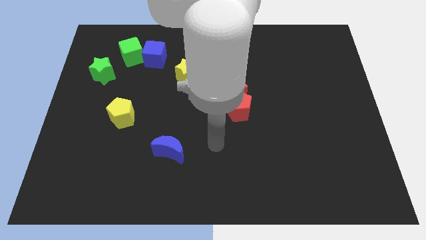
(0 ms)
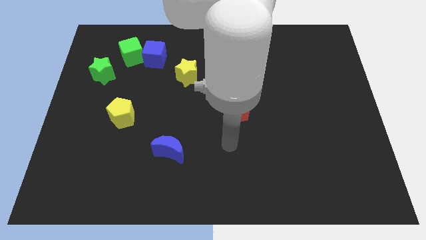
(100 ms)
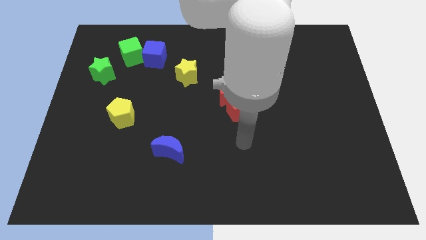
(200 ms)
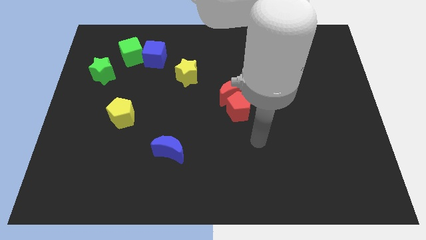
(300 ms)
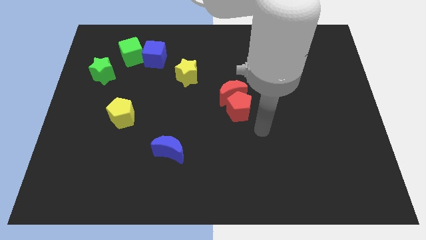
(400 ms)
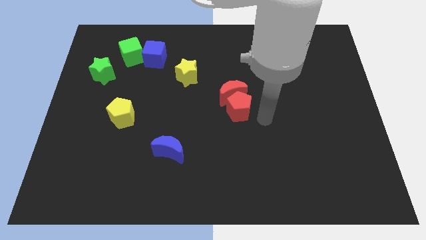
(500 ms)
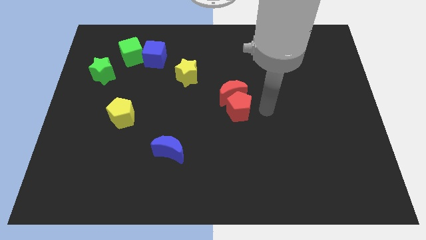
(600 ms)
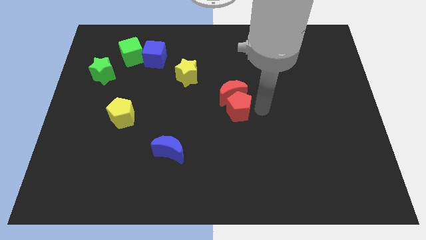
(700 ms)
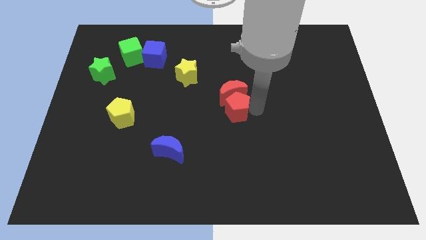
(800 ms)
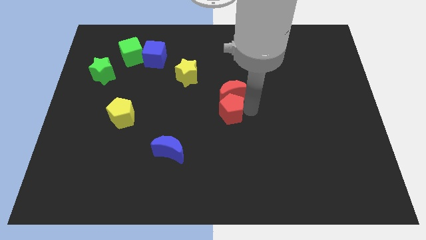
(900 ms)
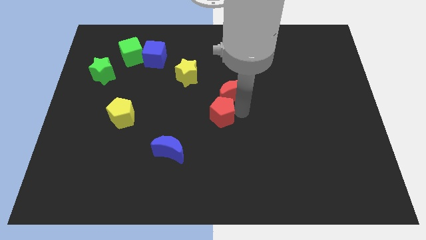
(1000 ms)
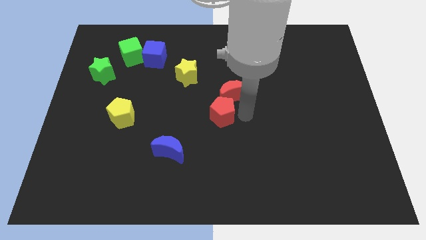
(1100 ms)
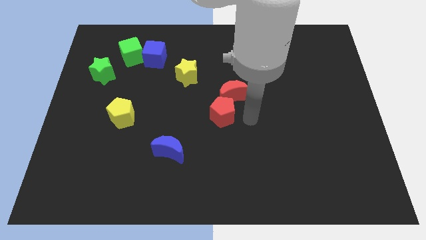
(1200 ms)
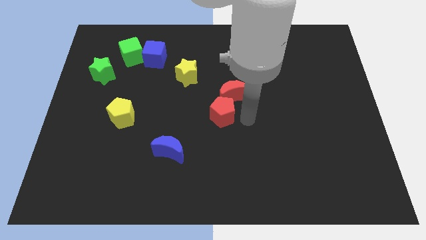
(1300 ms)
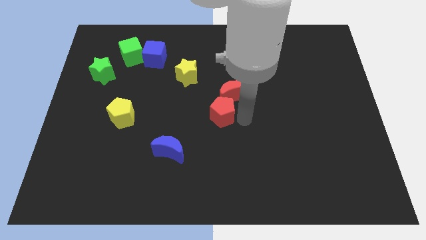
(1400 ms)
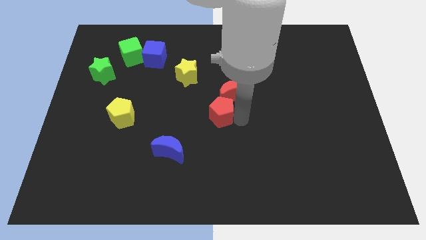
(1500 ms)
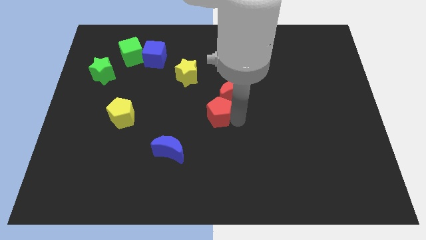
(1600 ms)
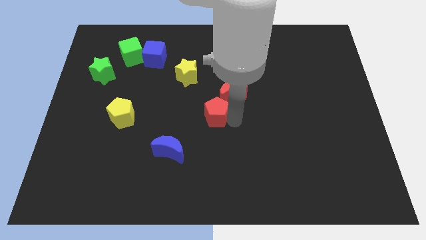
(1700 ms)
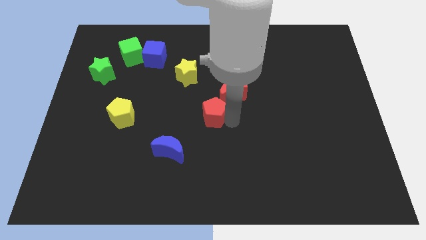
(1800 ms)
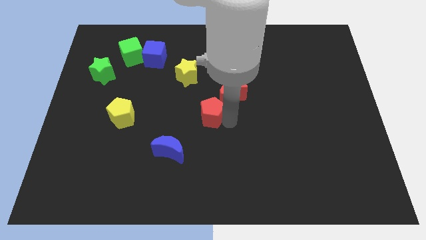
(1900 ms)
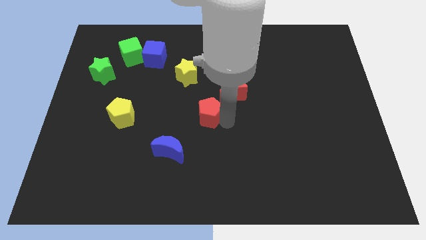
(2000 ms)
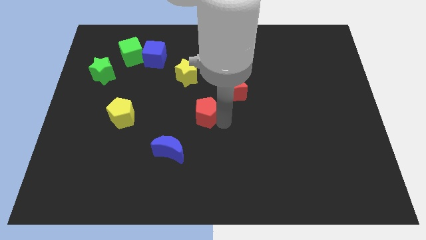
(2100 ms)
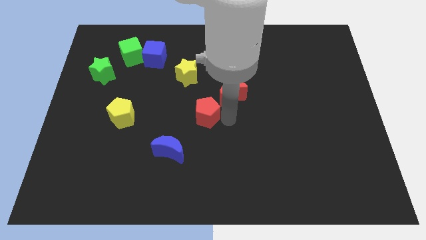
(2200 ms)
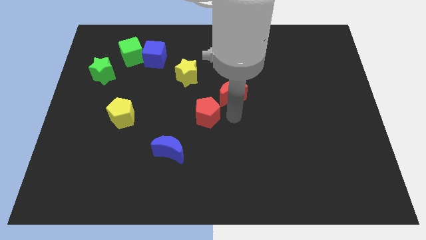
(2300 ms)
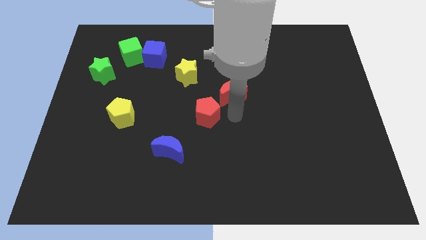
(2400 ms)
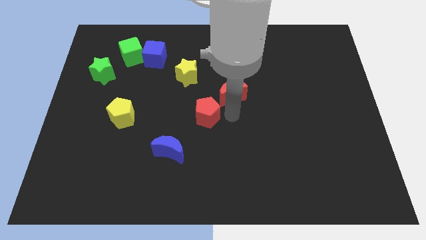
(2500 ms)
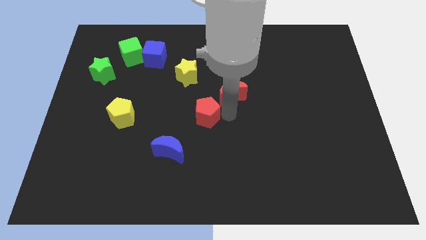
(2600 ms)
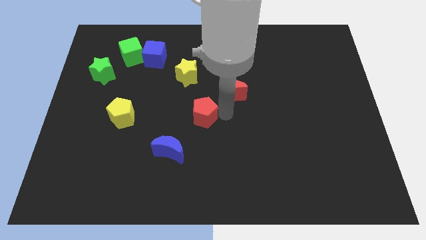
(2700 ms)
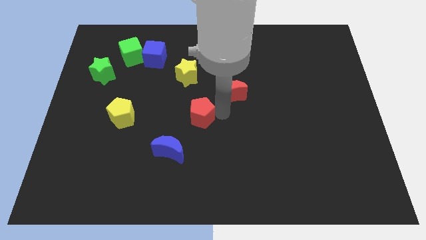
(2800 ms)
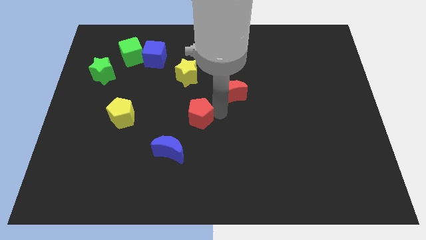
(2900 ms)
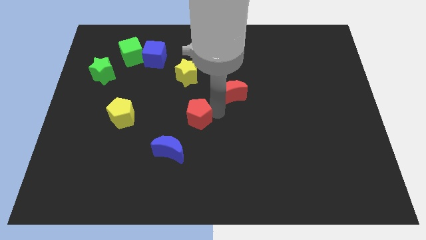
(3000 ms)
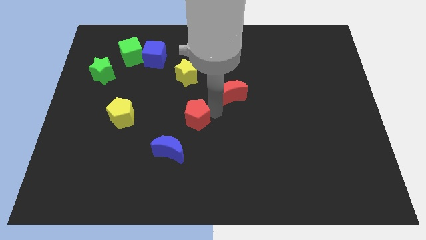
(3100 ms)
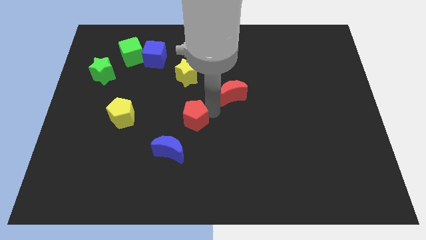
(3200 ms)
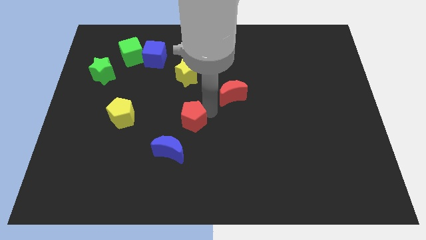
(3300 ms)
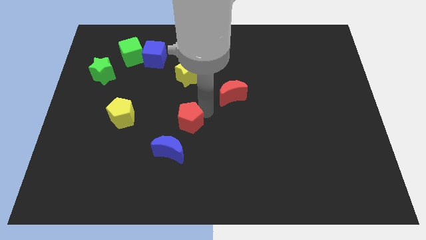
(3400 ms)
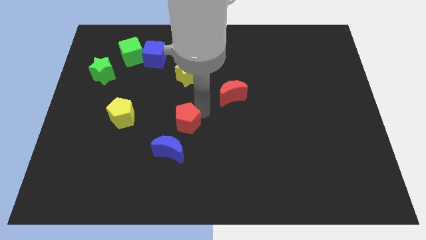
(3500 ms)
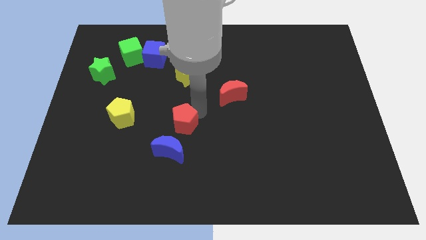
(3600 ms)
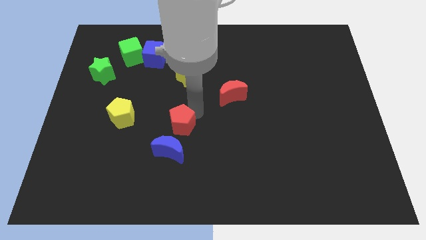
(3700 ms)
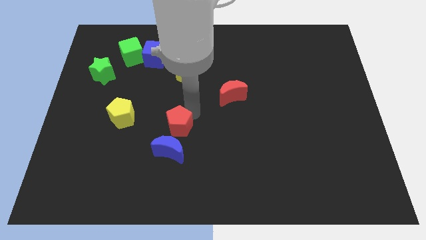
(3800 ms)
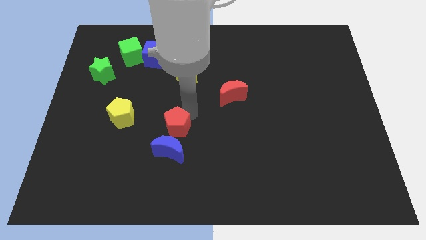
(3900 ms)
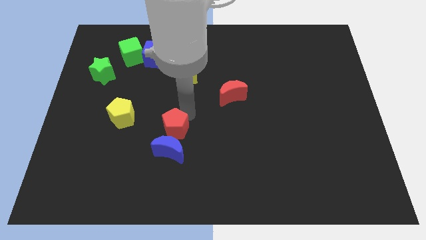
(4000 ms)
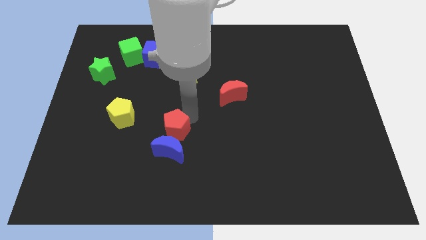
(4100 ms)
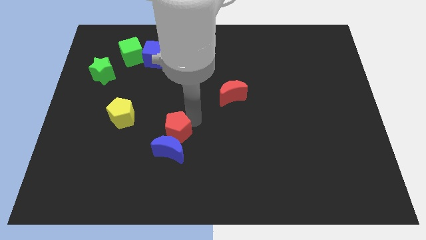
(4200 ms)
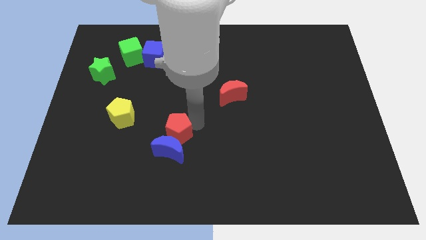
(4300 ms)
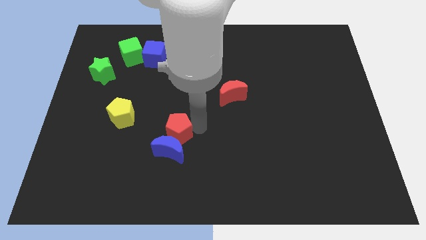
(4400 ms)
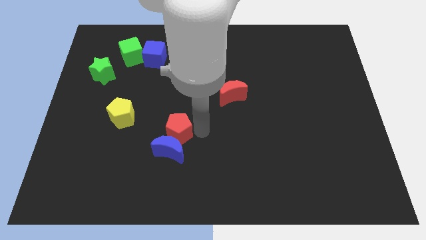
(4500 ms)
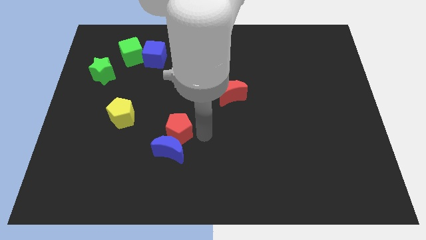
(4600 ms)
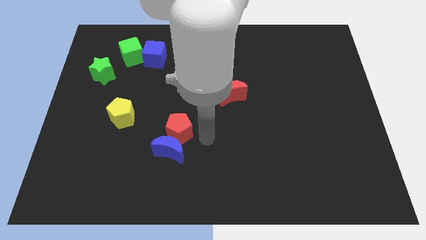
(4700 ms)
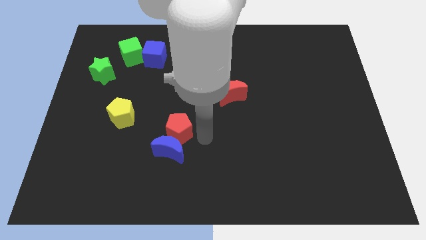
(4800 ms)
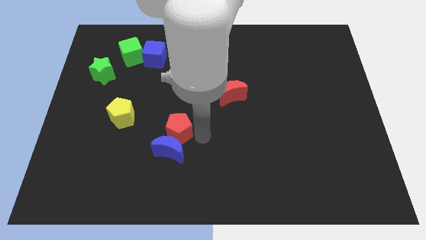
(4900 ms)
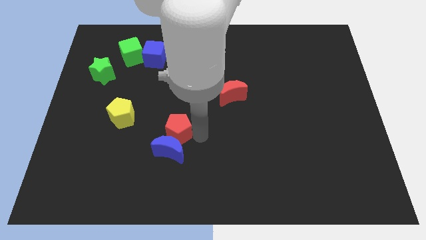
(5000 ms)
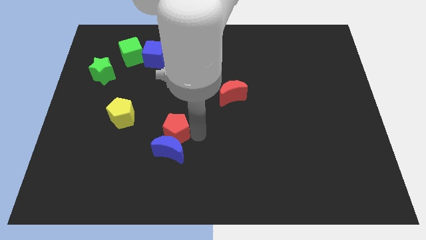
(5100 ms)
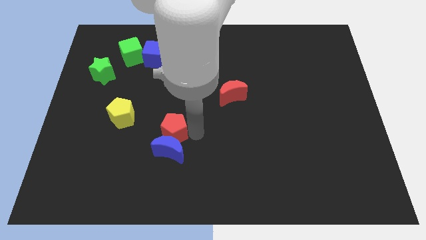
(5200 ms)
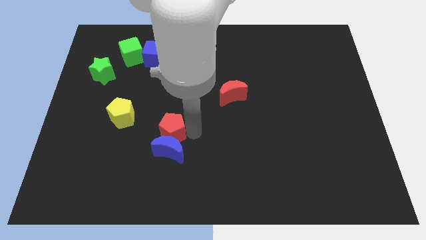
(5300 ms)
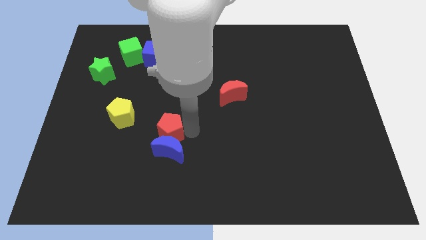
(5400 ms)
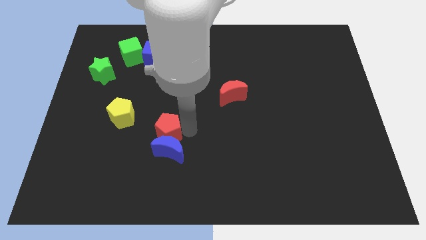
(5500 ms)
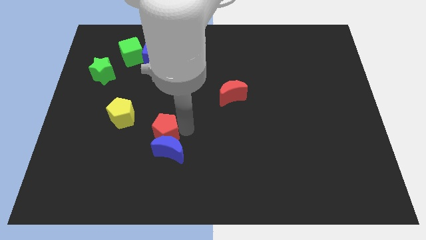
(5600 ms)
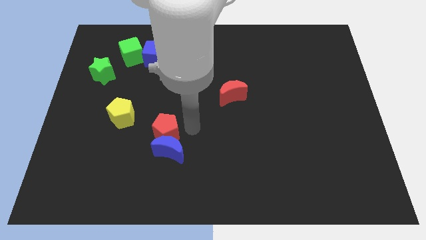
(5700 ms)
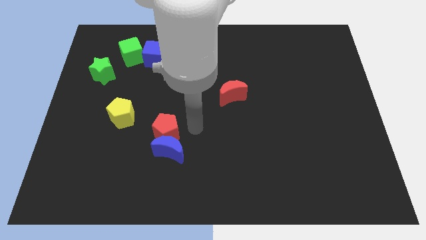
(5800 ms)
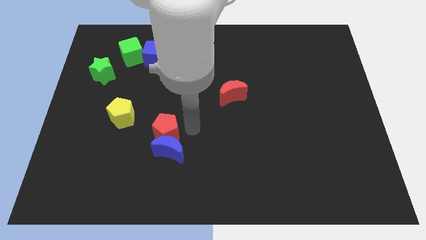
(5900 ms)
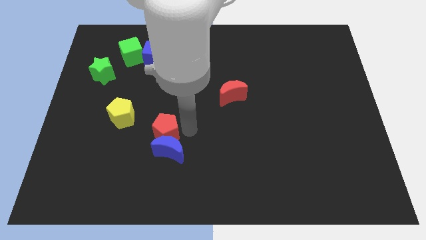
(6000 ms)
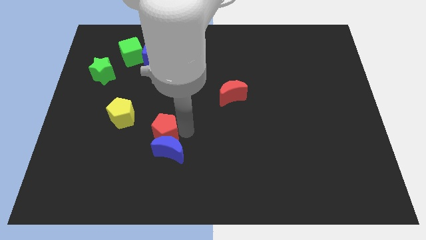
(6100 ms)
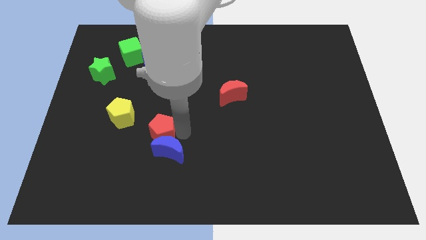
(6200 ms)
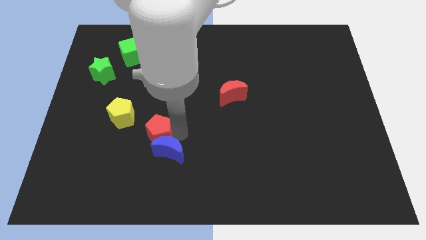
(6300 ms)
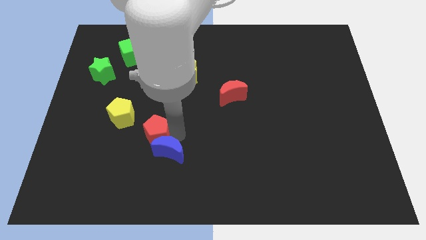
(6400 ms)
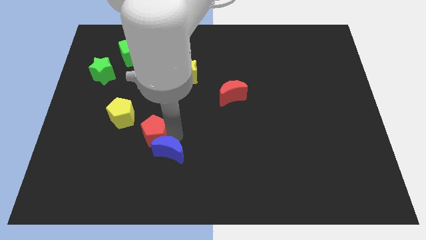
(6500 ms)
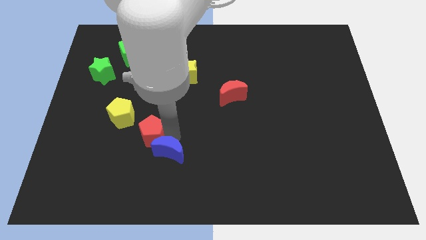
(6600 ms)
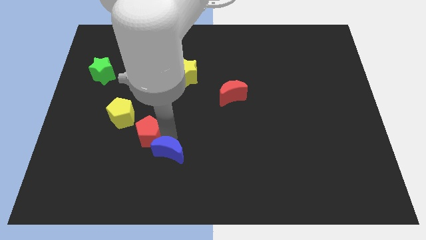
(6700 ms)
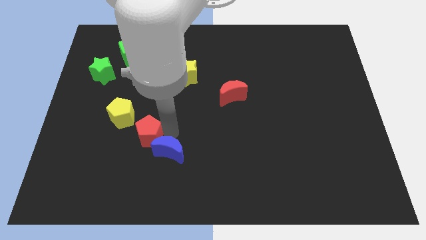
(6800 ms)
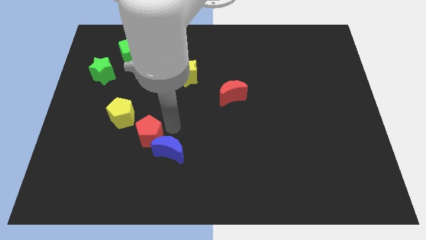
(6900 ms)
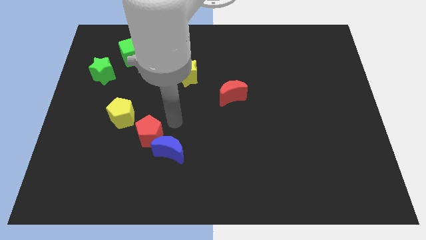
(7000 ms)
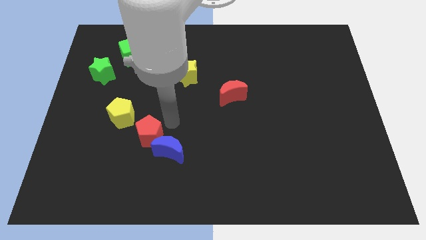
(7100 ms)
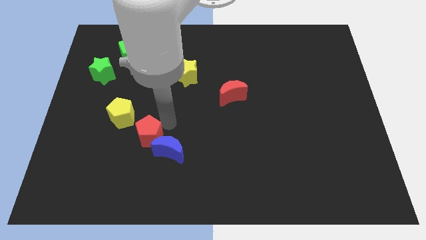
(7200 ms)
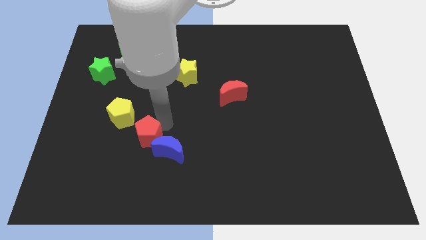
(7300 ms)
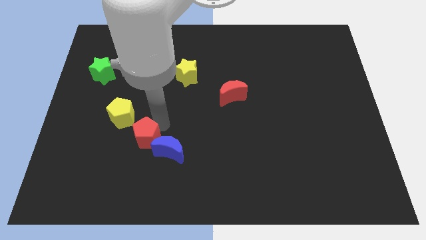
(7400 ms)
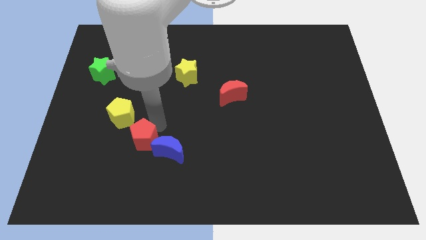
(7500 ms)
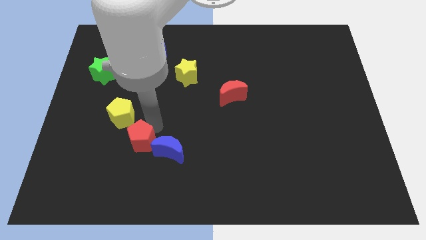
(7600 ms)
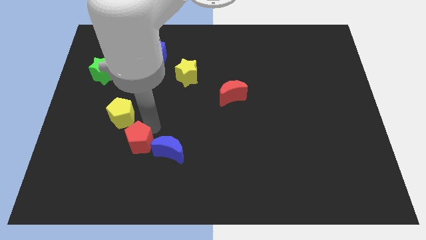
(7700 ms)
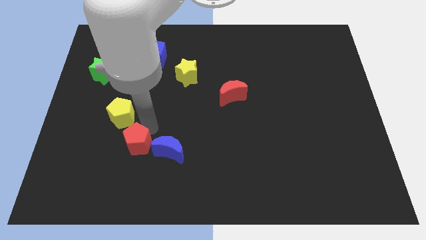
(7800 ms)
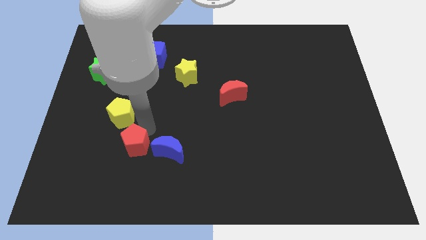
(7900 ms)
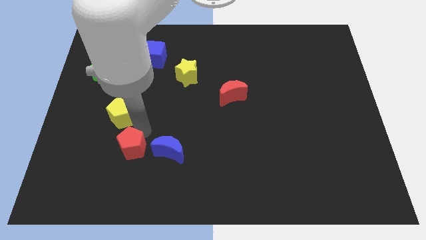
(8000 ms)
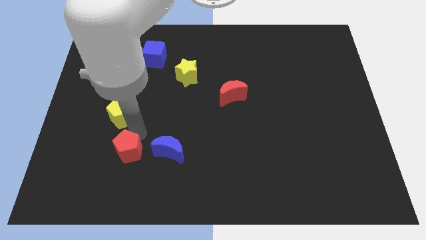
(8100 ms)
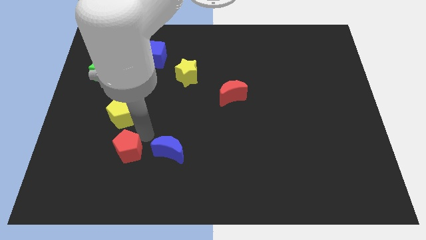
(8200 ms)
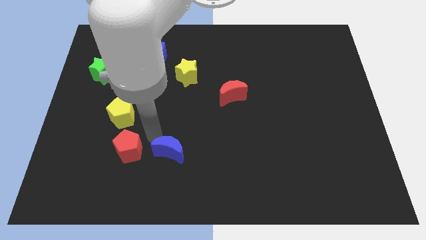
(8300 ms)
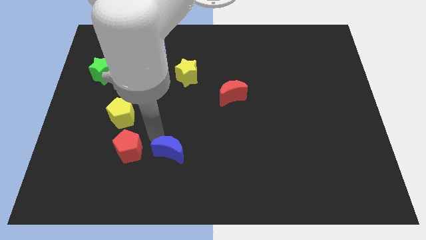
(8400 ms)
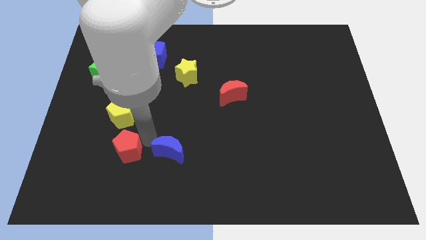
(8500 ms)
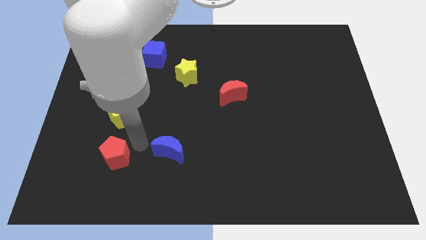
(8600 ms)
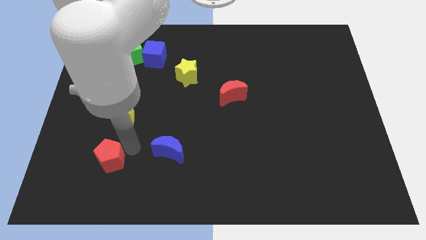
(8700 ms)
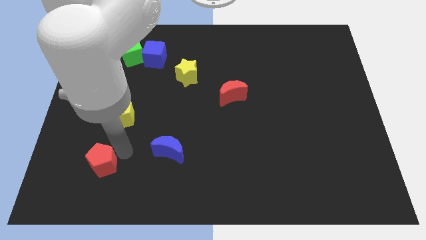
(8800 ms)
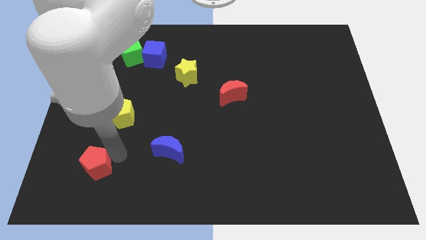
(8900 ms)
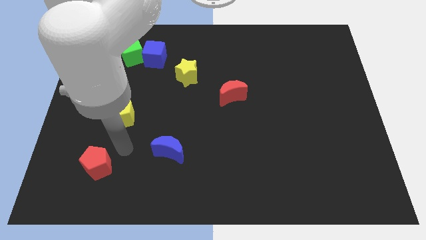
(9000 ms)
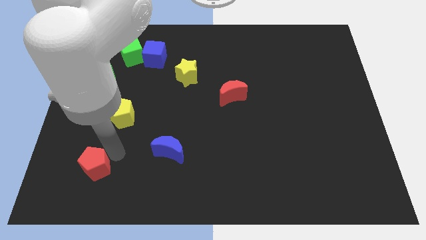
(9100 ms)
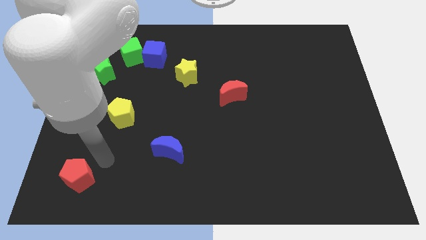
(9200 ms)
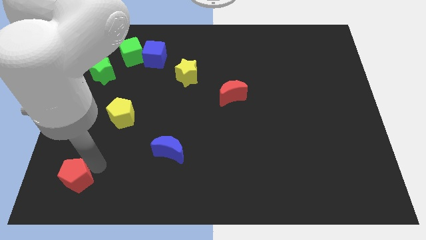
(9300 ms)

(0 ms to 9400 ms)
put the red pentagon to the lower left corner
